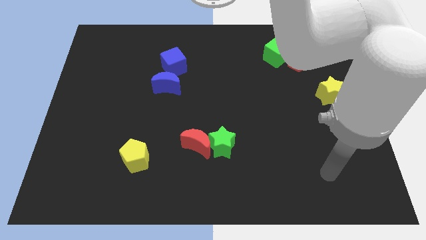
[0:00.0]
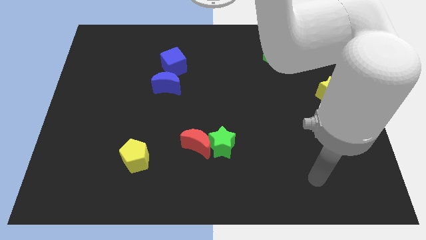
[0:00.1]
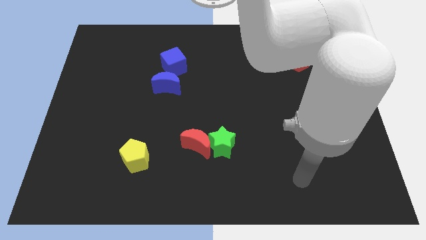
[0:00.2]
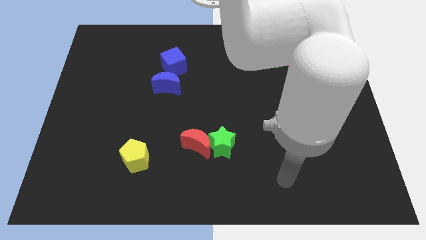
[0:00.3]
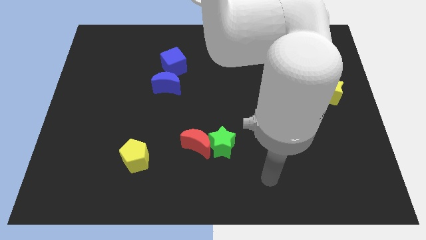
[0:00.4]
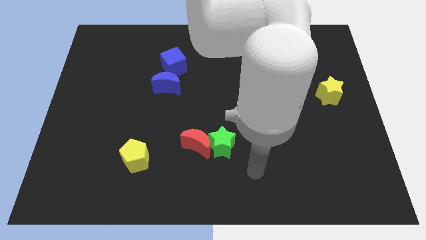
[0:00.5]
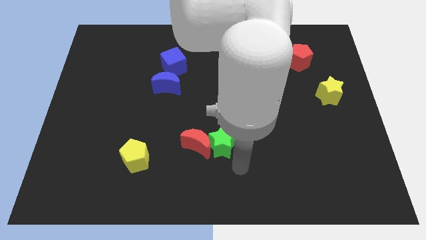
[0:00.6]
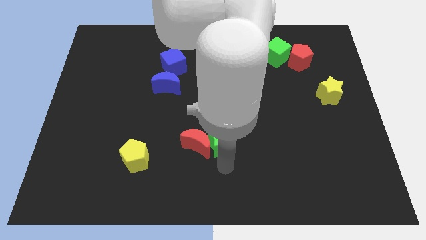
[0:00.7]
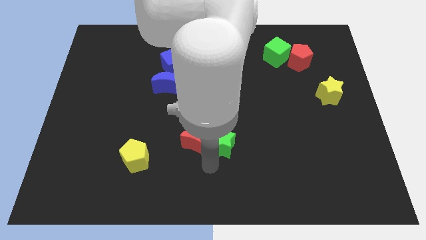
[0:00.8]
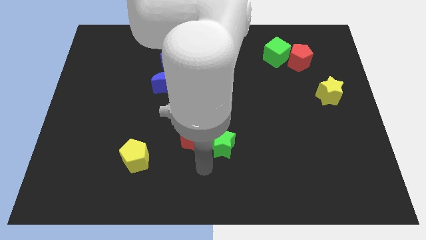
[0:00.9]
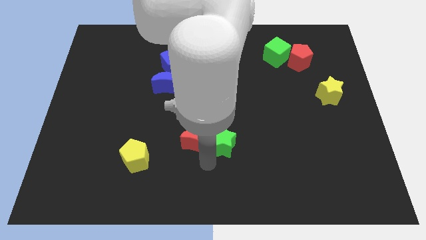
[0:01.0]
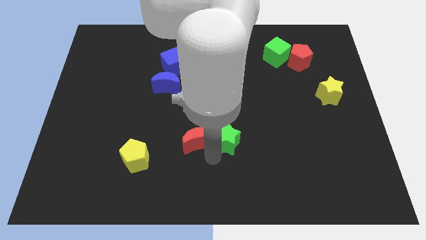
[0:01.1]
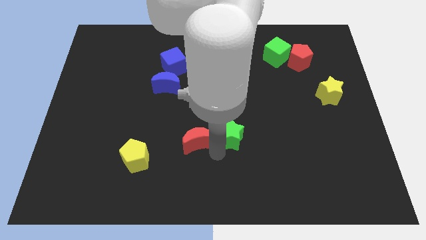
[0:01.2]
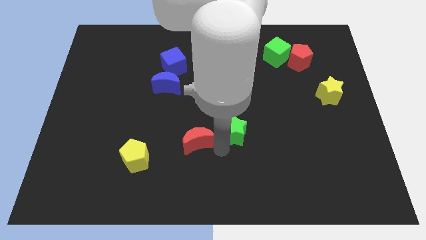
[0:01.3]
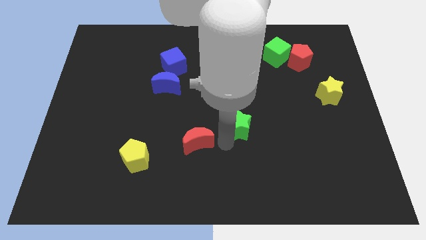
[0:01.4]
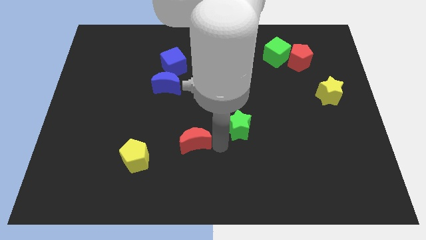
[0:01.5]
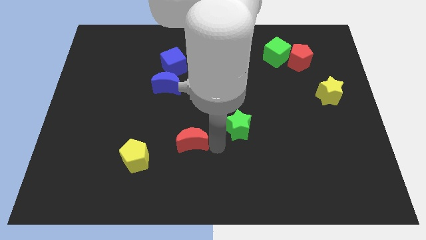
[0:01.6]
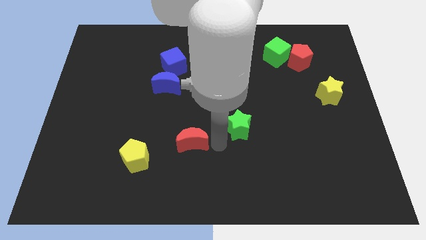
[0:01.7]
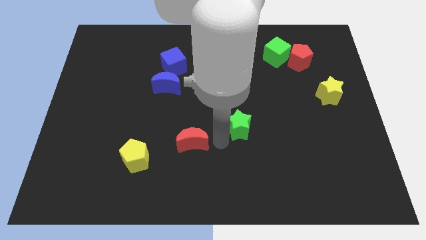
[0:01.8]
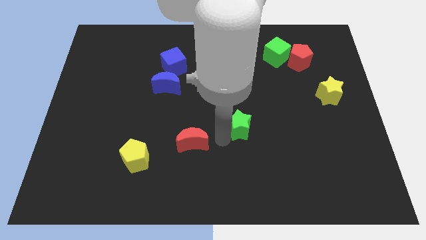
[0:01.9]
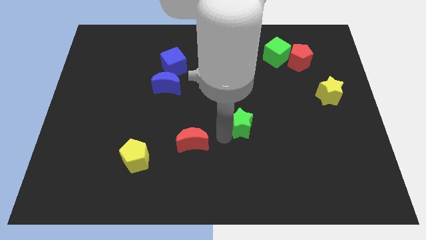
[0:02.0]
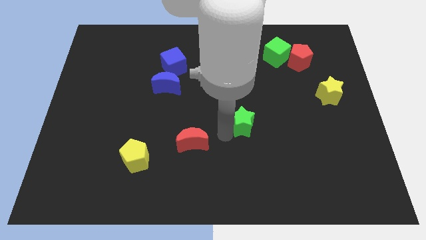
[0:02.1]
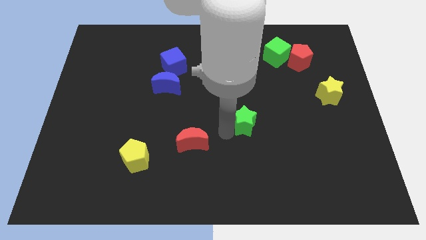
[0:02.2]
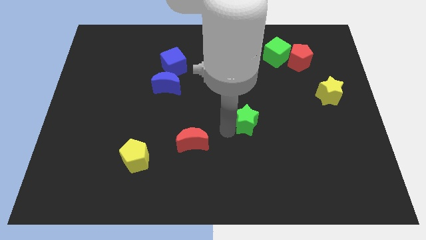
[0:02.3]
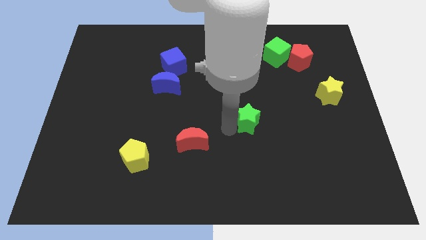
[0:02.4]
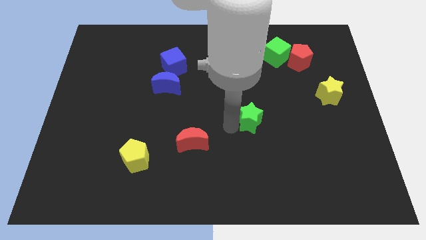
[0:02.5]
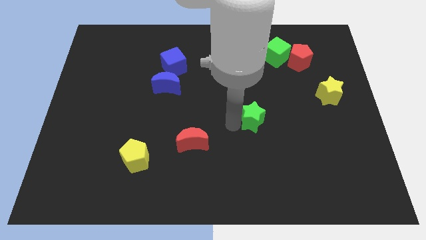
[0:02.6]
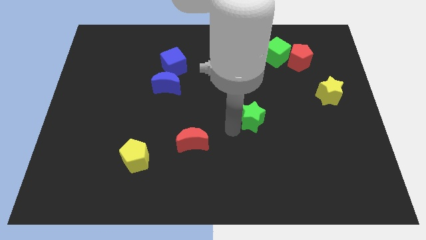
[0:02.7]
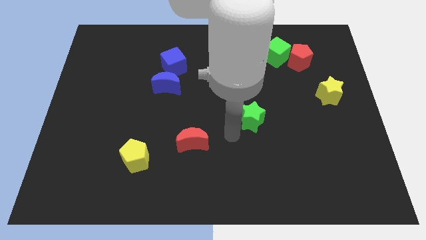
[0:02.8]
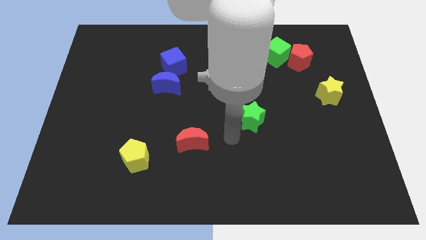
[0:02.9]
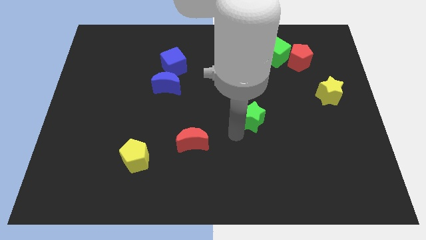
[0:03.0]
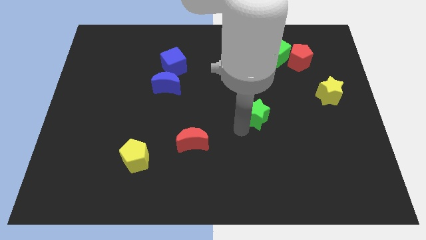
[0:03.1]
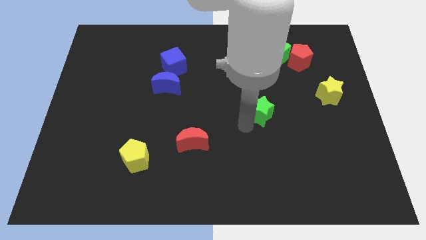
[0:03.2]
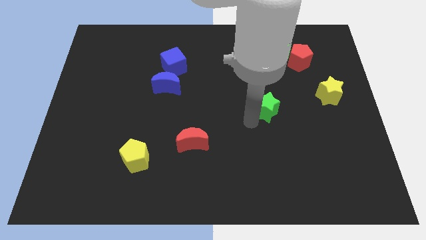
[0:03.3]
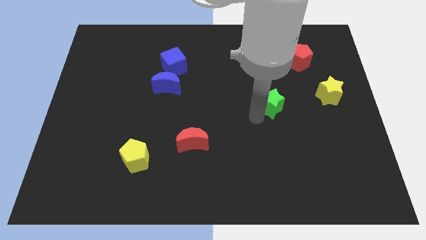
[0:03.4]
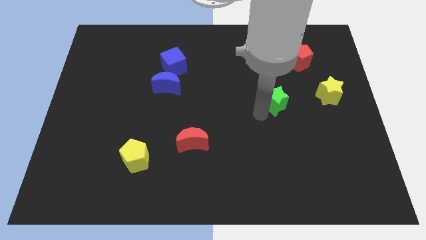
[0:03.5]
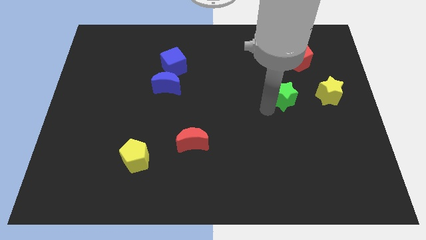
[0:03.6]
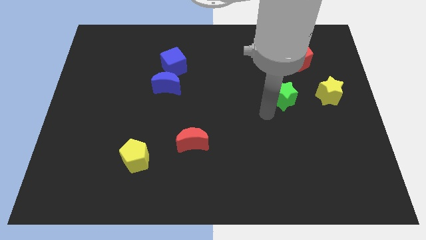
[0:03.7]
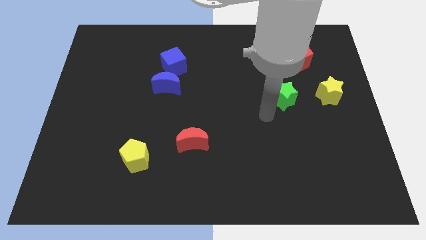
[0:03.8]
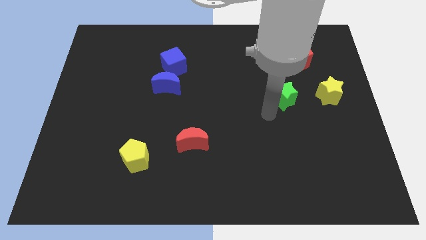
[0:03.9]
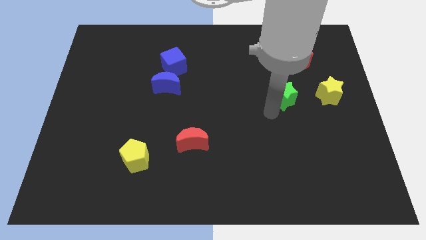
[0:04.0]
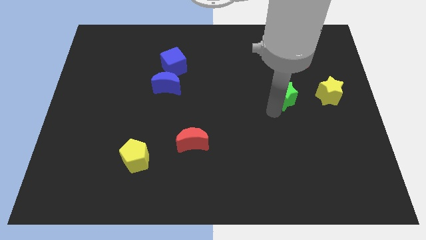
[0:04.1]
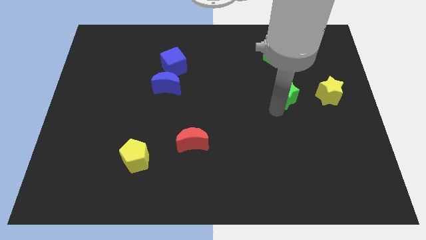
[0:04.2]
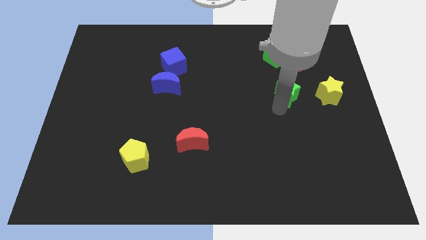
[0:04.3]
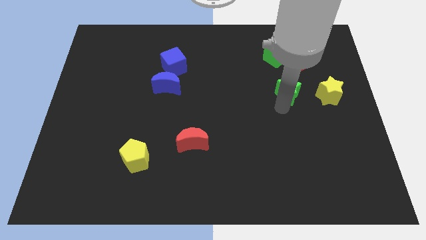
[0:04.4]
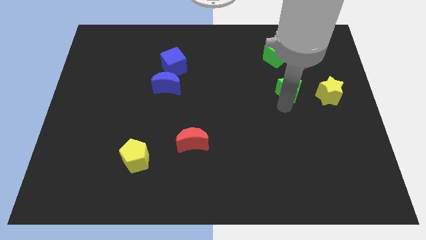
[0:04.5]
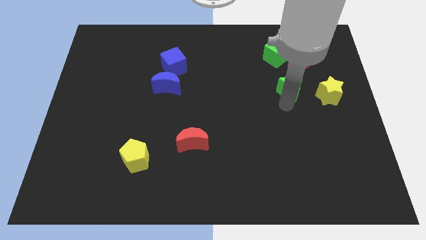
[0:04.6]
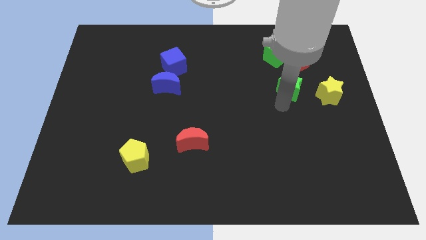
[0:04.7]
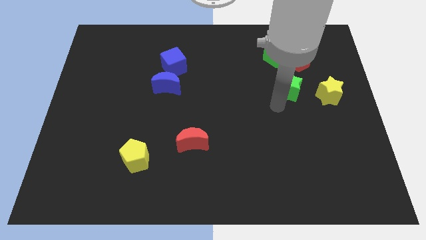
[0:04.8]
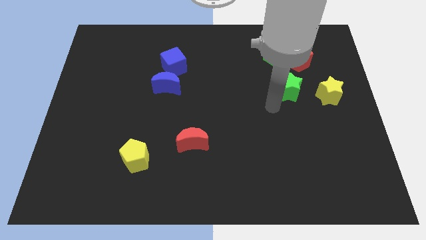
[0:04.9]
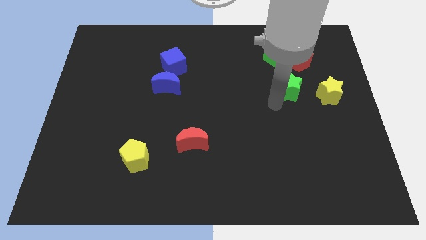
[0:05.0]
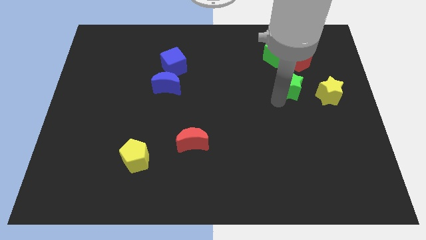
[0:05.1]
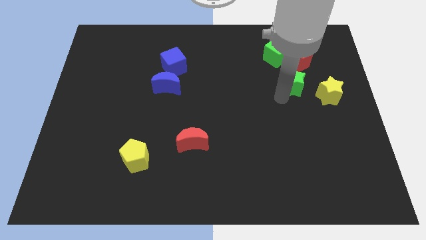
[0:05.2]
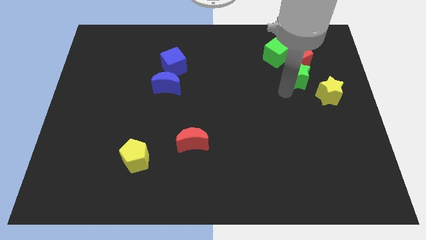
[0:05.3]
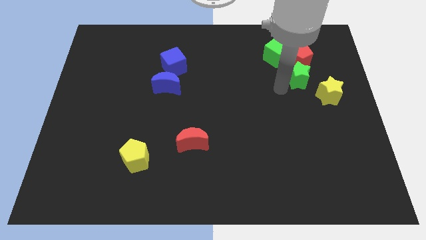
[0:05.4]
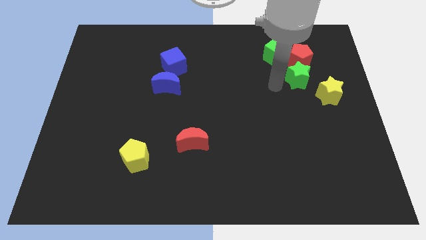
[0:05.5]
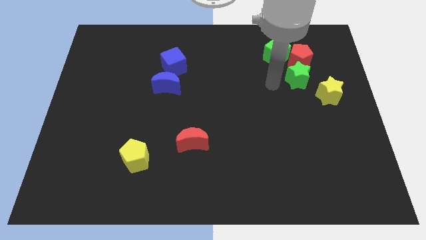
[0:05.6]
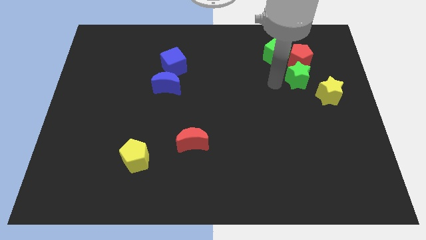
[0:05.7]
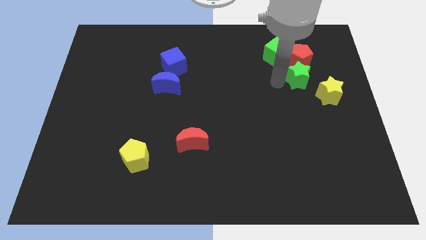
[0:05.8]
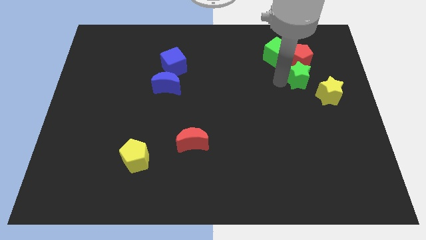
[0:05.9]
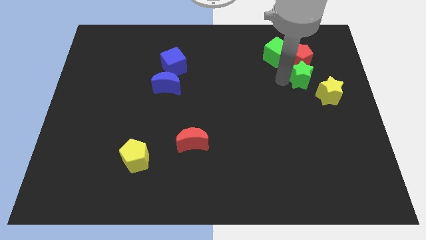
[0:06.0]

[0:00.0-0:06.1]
slide the green star to the bottom right side of the red pentagon

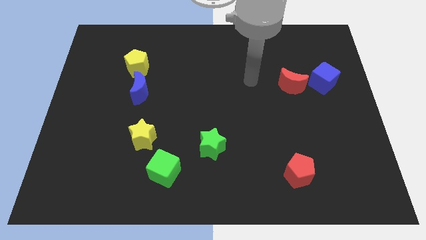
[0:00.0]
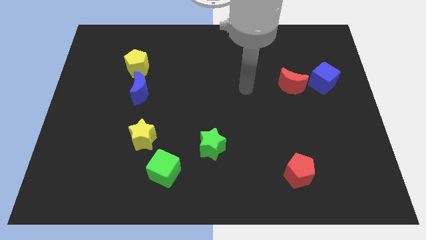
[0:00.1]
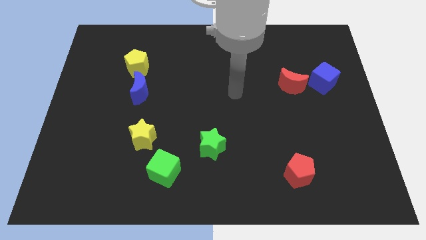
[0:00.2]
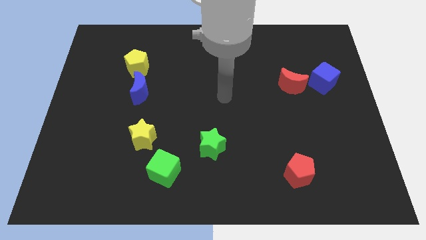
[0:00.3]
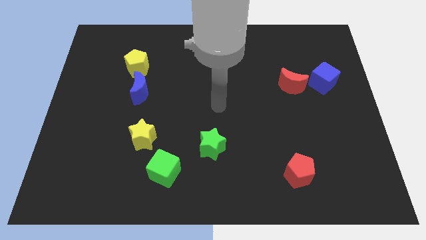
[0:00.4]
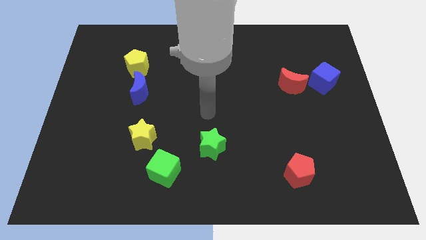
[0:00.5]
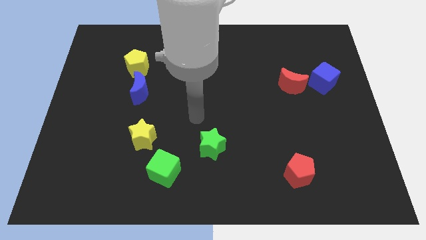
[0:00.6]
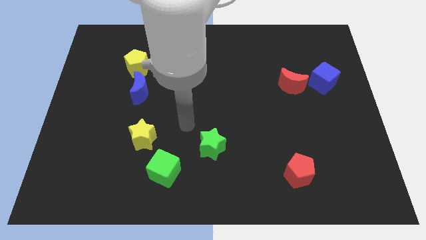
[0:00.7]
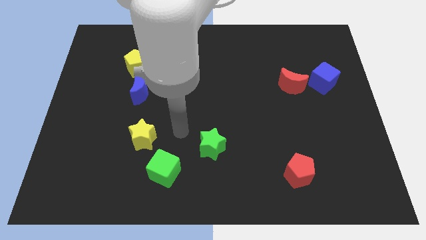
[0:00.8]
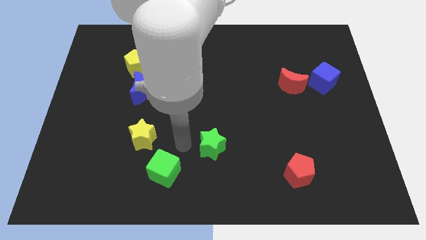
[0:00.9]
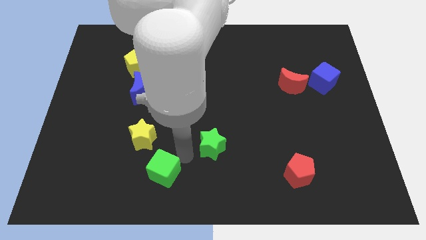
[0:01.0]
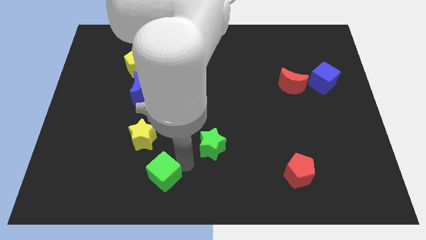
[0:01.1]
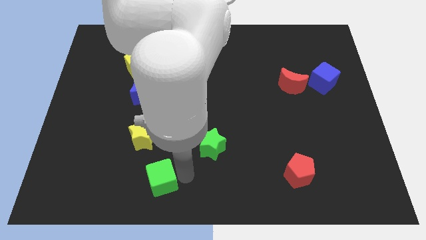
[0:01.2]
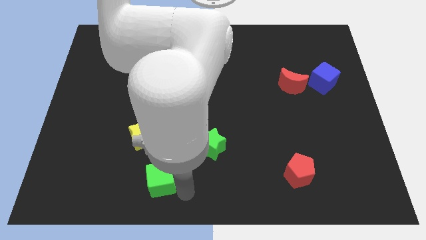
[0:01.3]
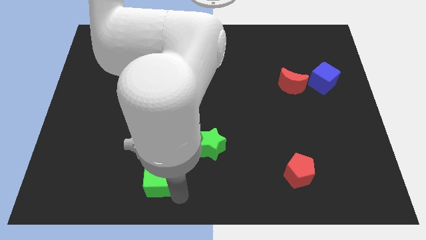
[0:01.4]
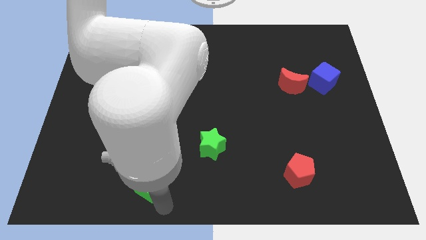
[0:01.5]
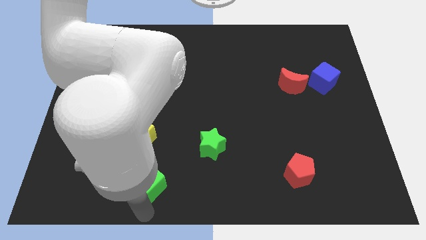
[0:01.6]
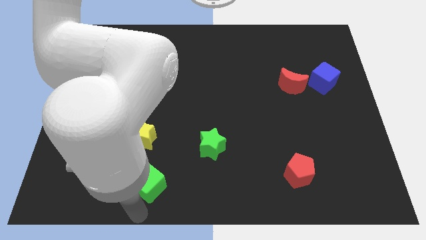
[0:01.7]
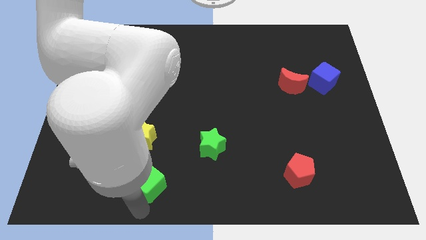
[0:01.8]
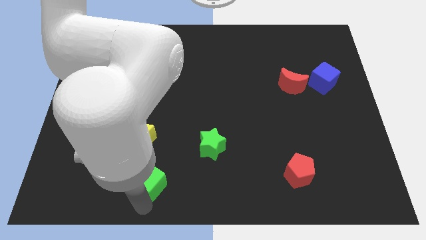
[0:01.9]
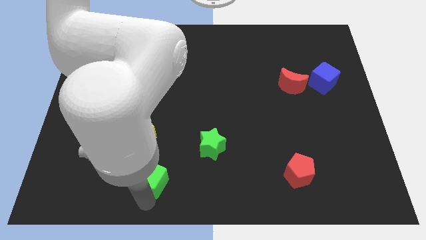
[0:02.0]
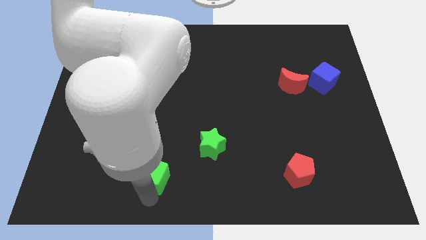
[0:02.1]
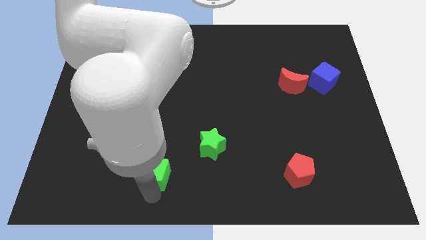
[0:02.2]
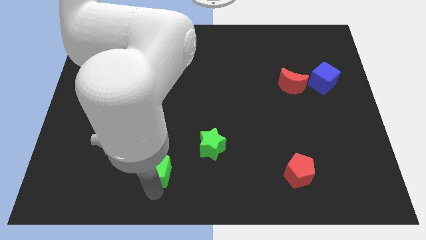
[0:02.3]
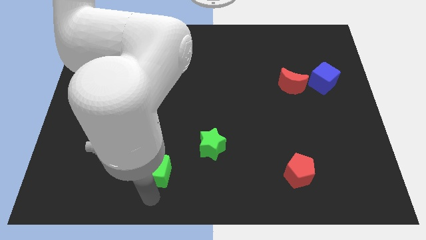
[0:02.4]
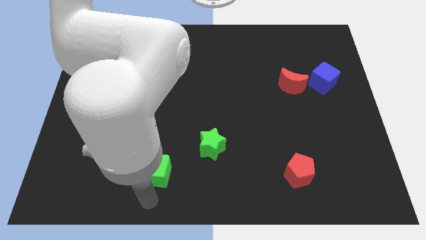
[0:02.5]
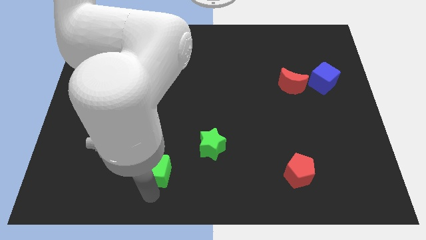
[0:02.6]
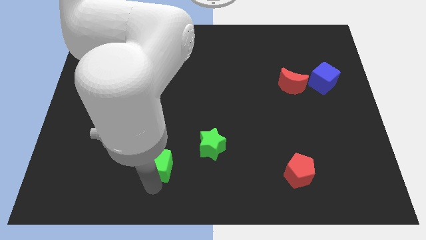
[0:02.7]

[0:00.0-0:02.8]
move the green cube just left of the green star
